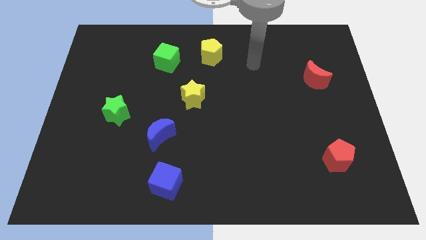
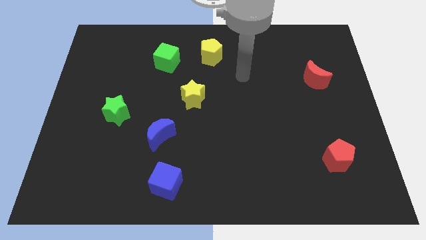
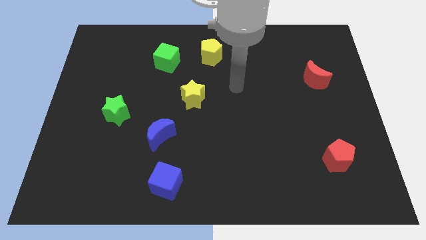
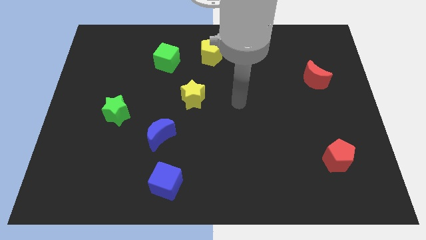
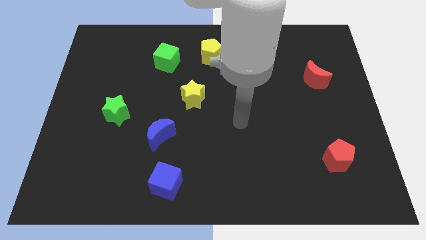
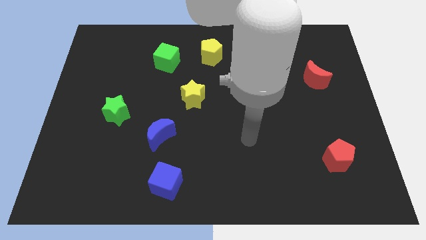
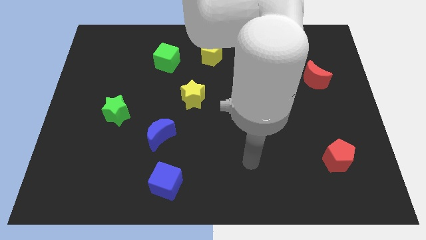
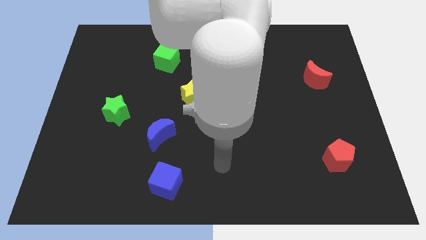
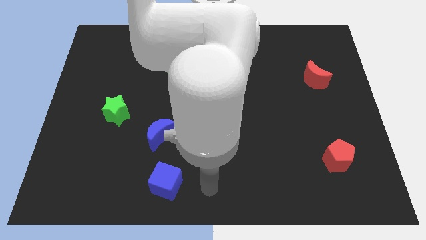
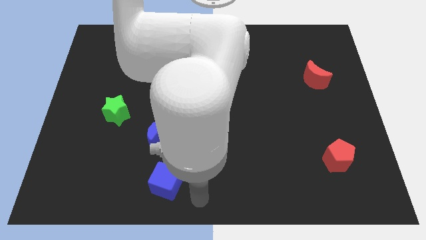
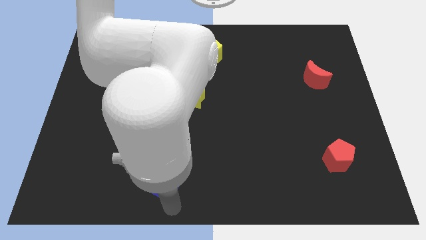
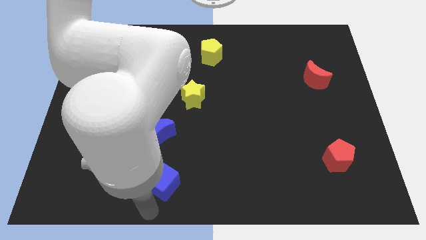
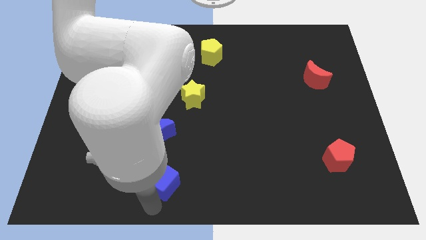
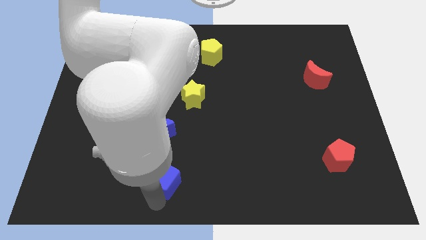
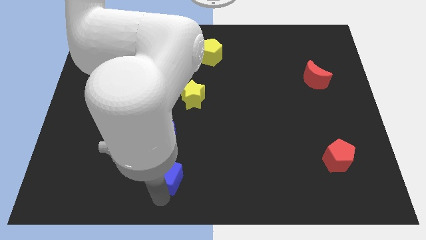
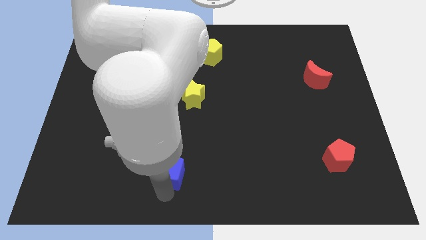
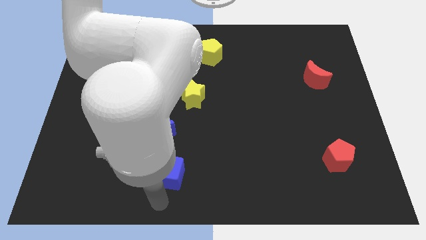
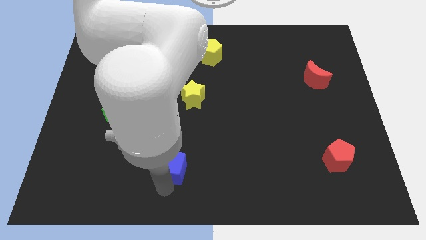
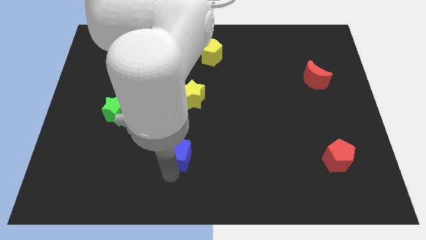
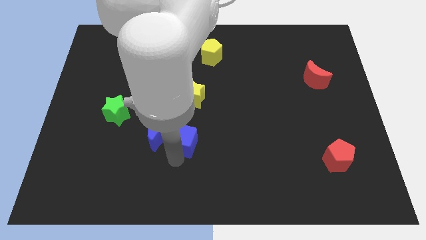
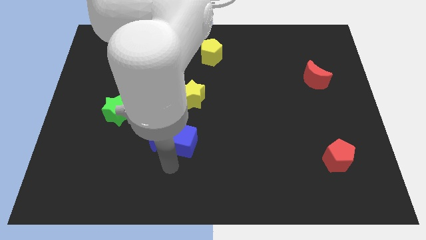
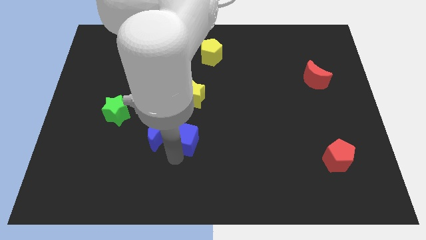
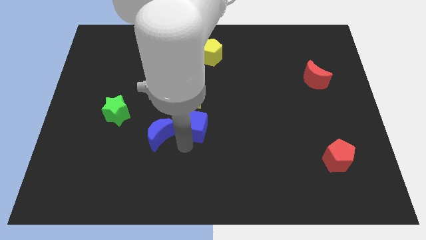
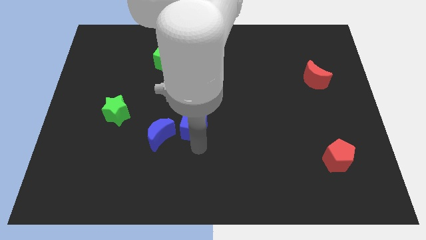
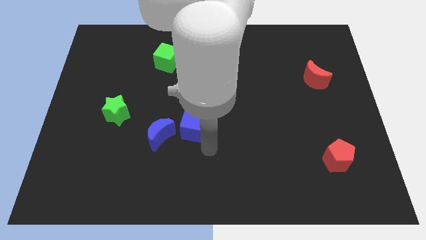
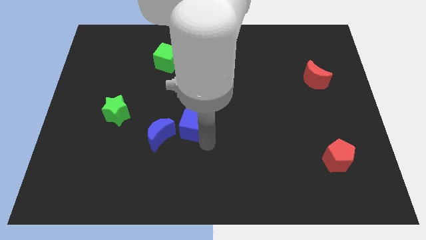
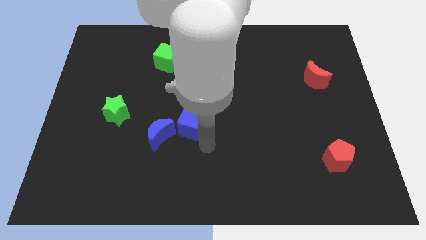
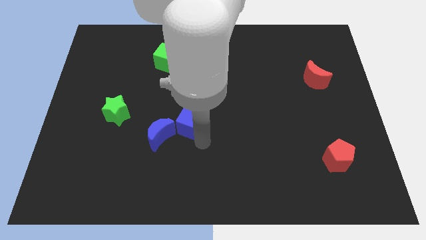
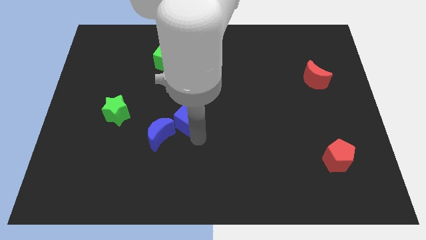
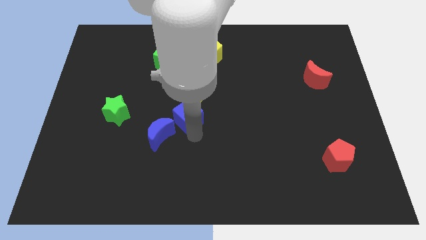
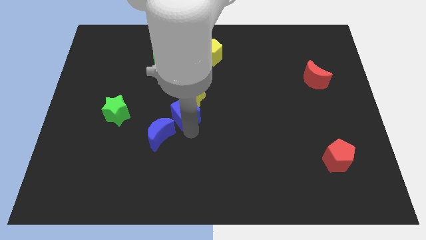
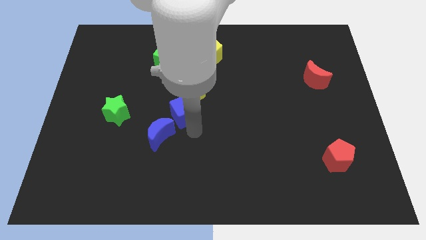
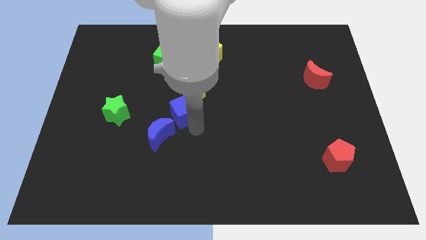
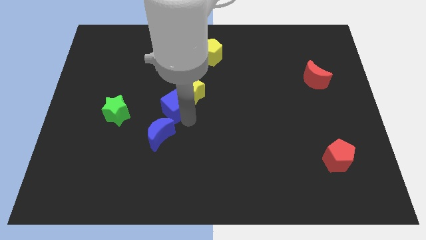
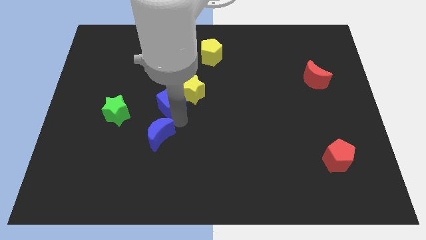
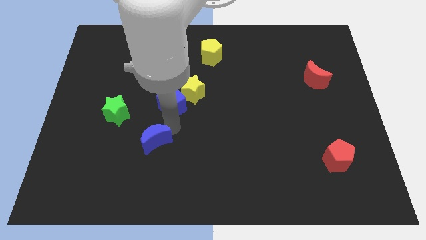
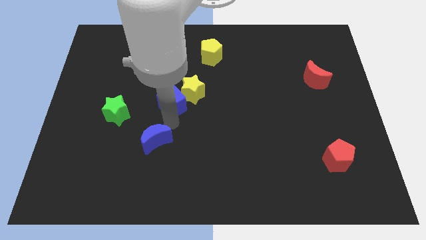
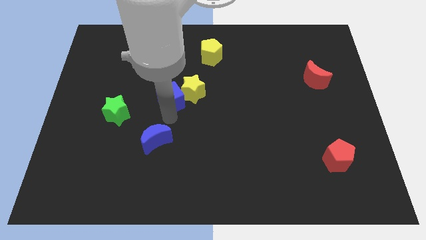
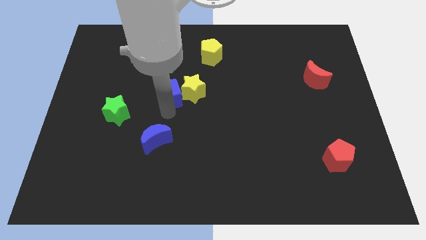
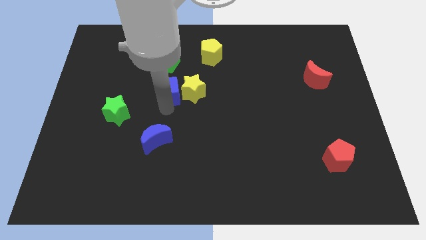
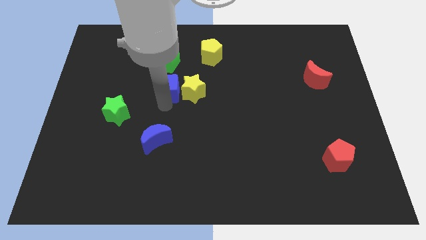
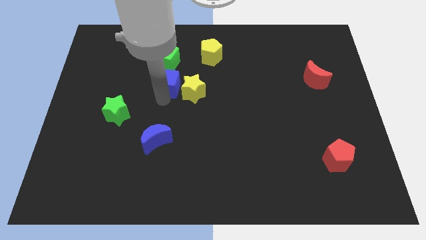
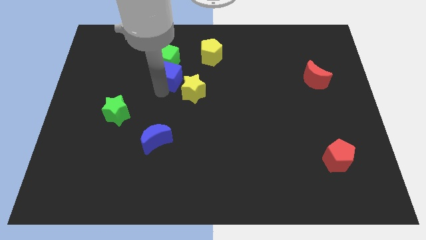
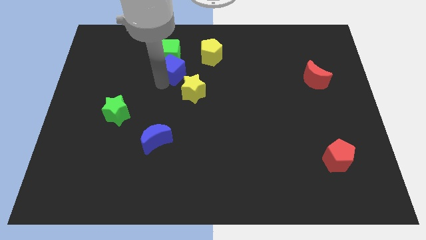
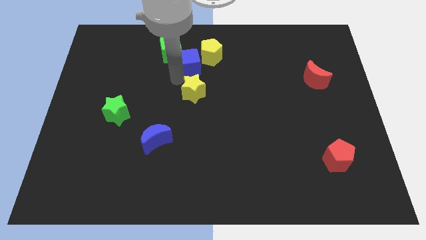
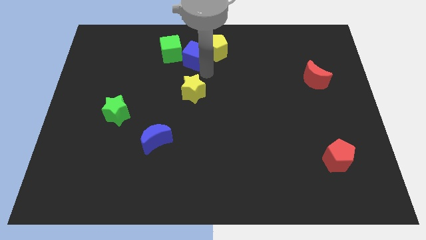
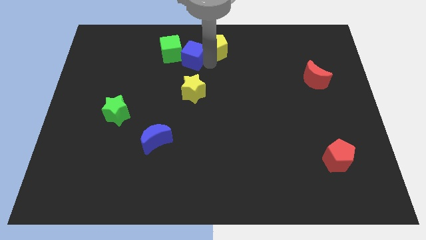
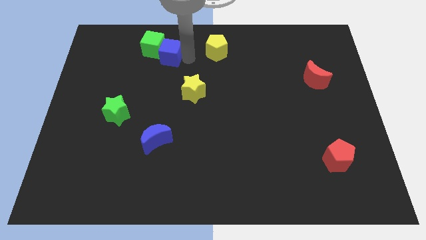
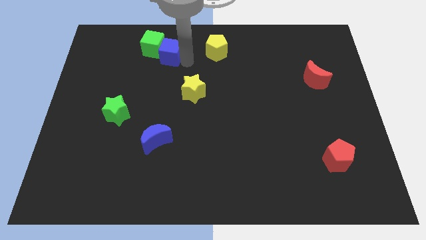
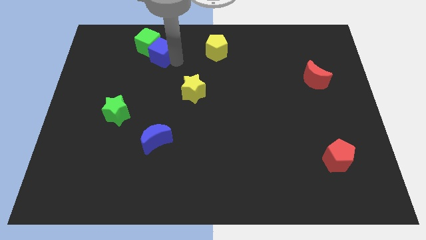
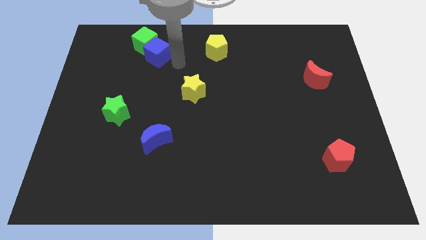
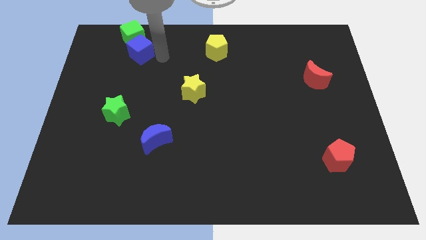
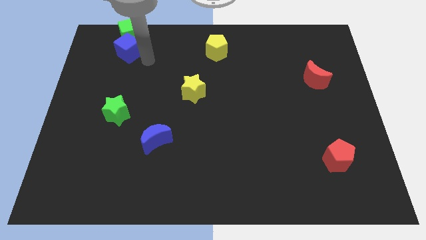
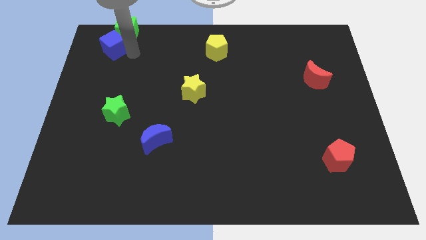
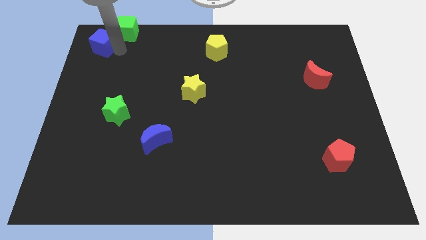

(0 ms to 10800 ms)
push the blue cube to the upper left corner

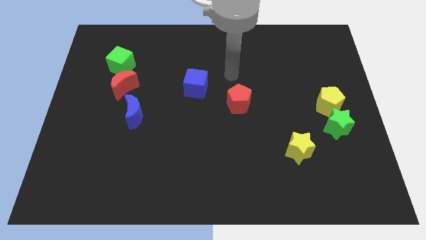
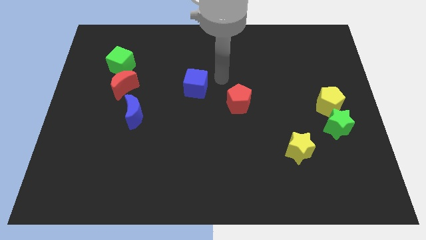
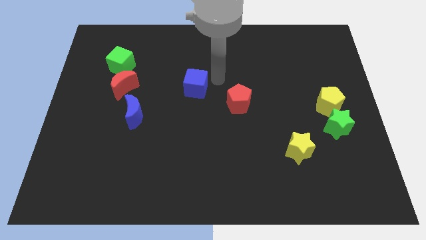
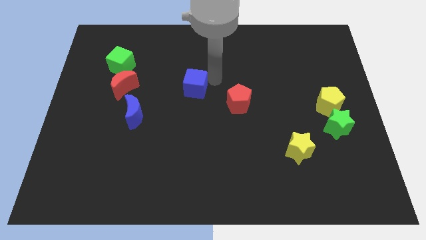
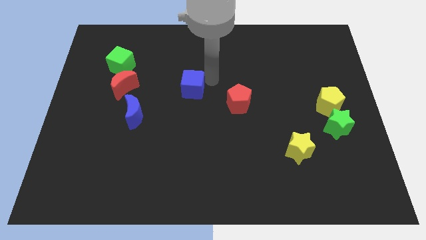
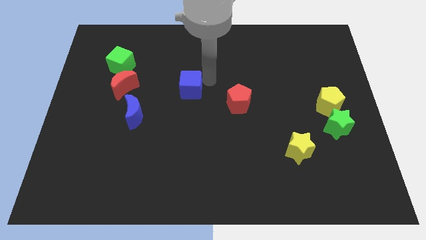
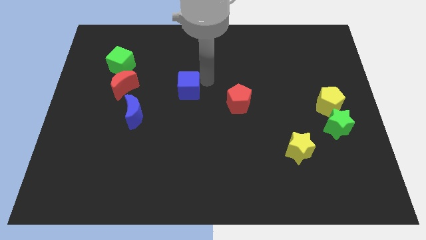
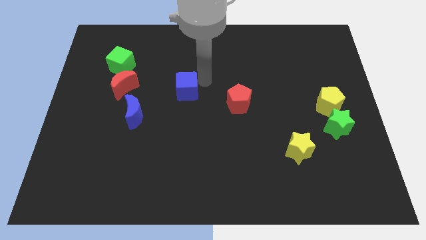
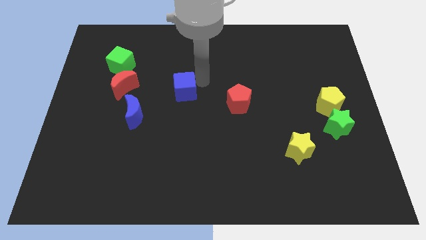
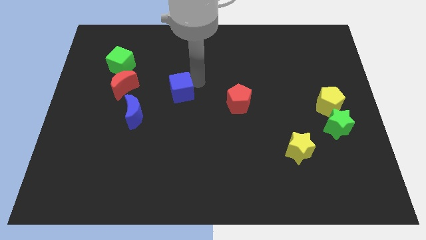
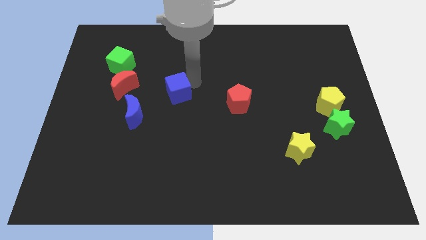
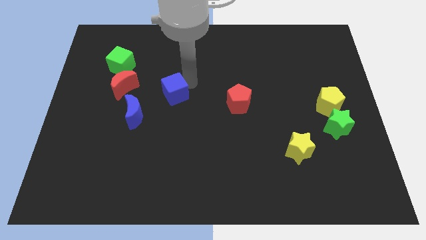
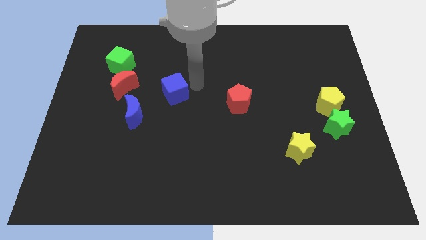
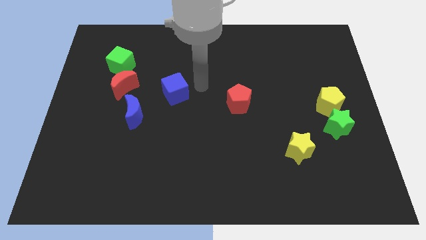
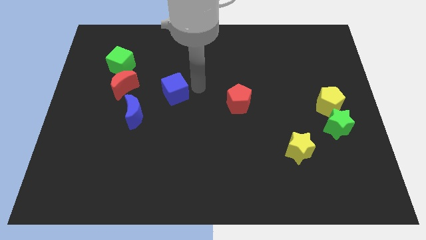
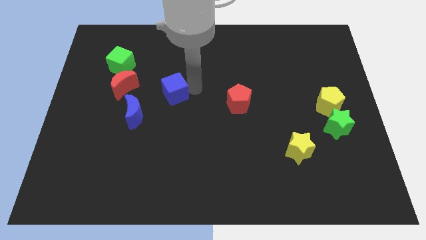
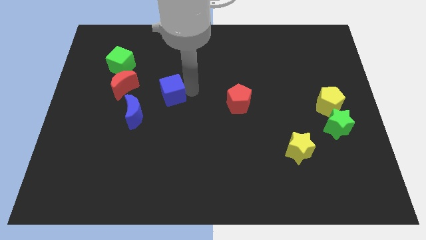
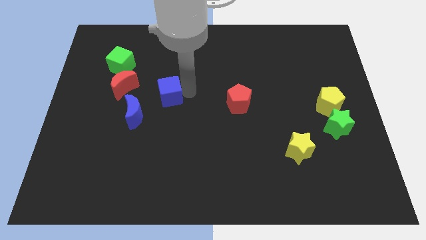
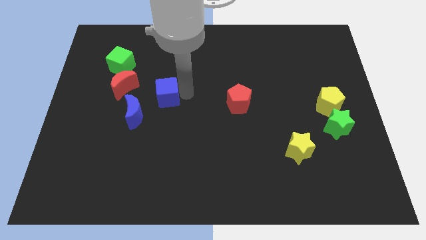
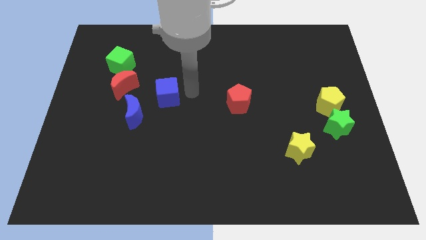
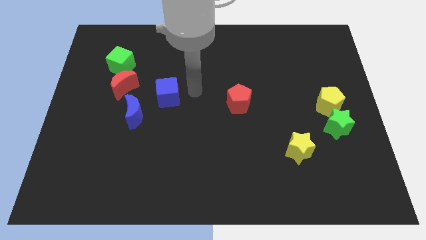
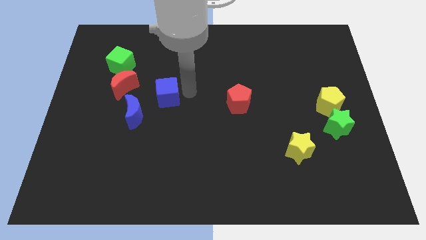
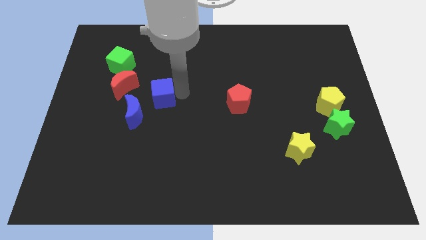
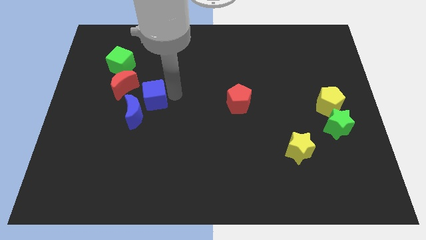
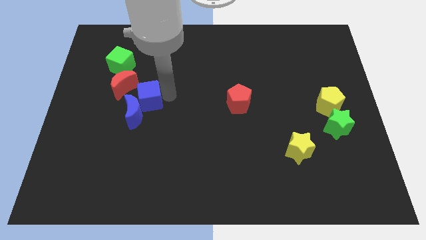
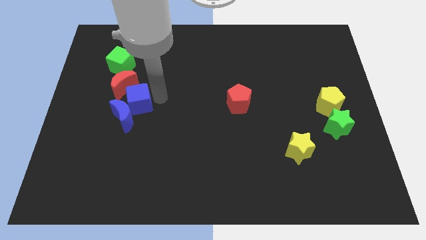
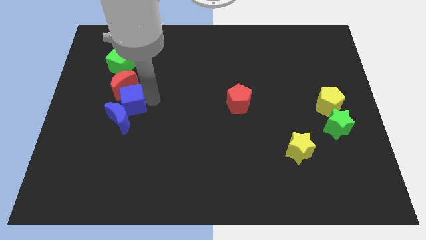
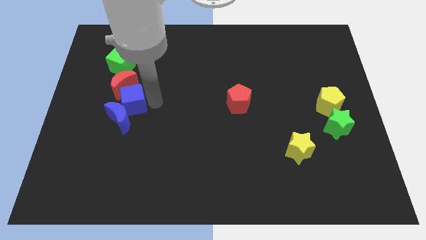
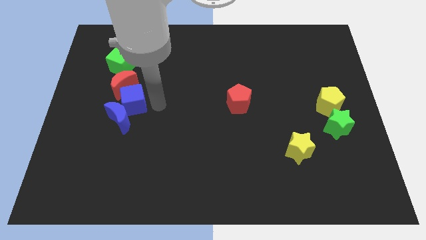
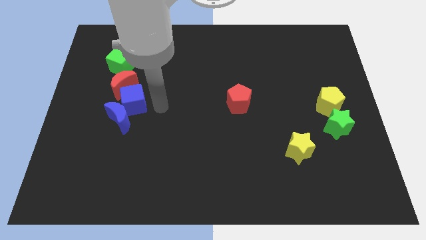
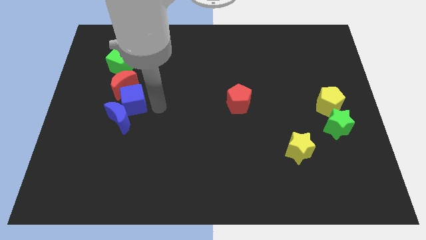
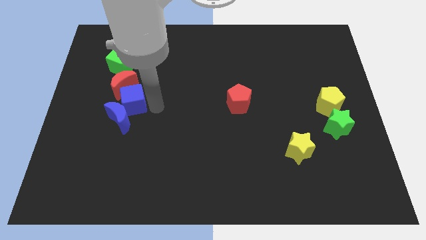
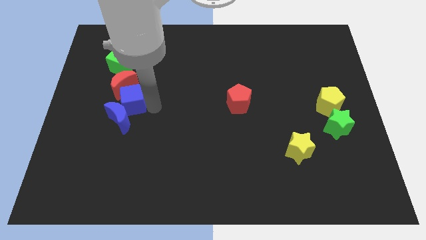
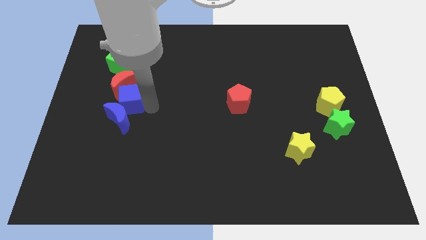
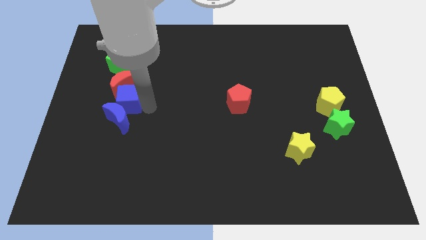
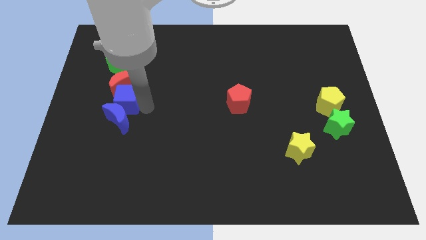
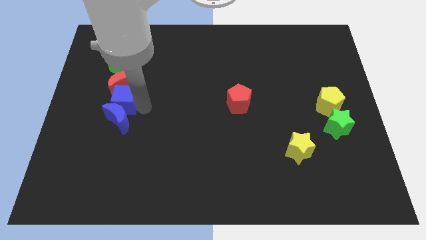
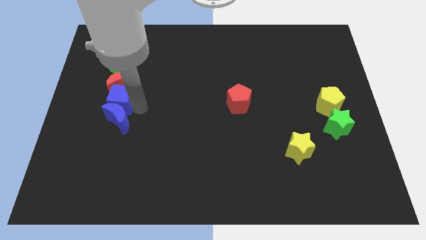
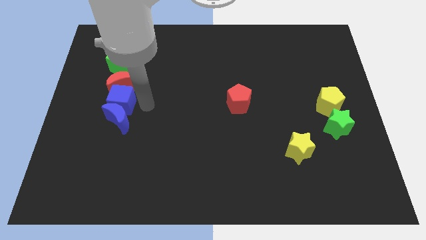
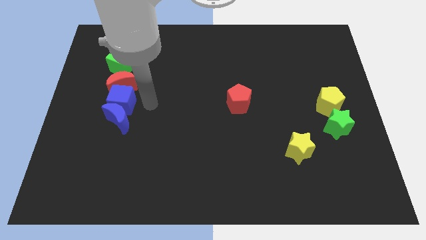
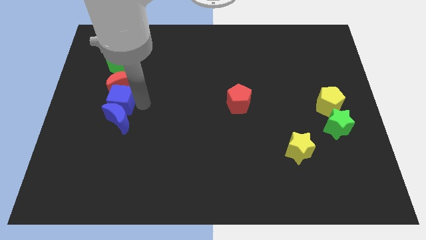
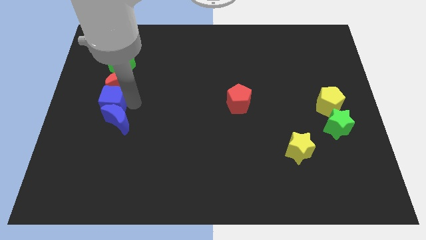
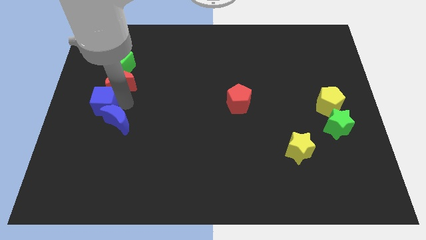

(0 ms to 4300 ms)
slide the blue cube to the left side of the board
